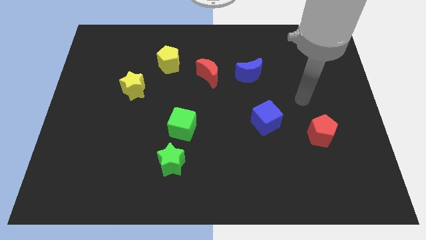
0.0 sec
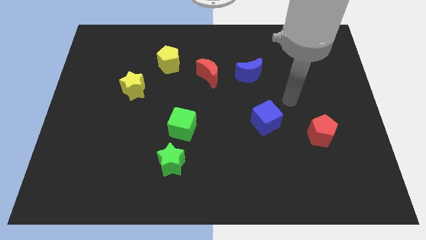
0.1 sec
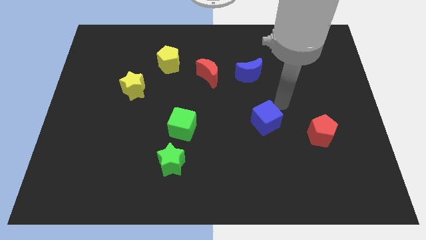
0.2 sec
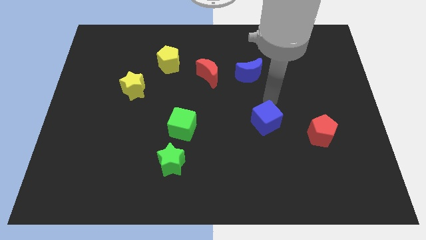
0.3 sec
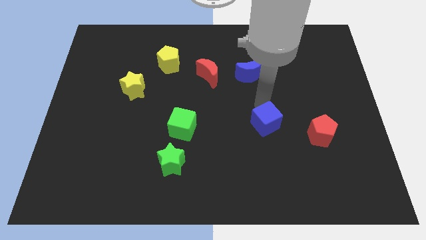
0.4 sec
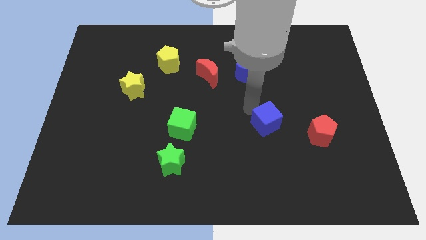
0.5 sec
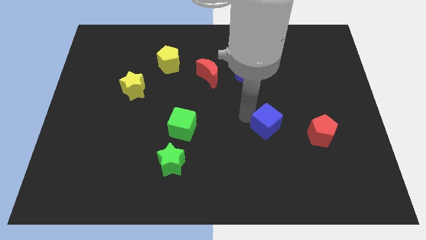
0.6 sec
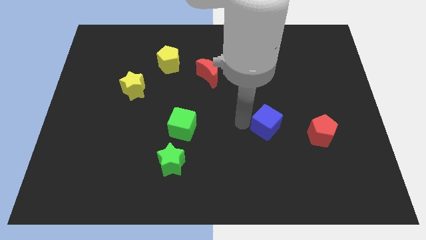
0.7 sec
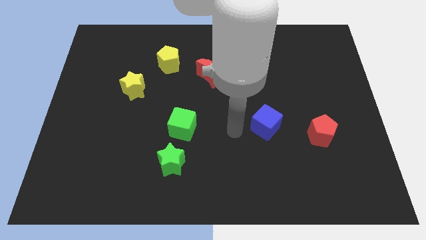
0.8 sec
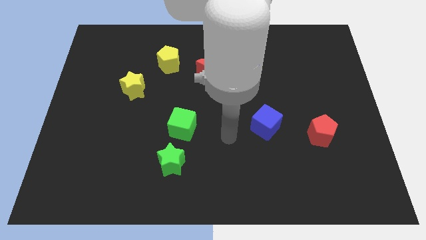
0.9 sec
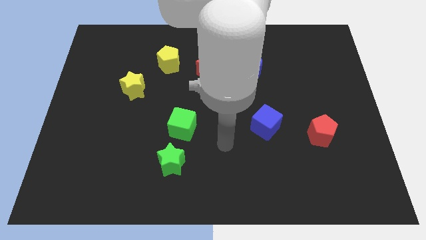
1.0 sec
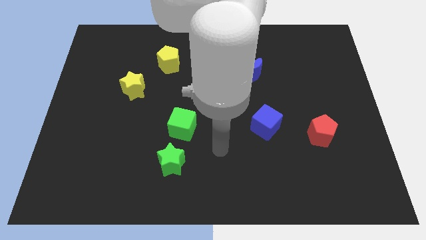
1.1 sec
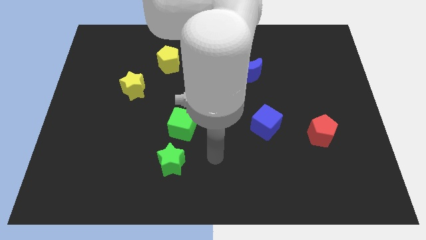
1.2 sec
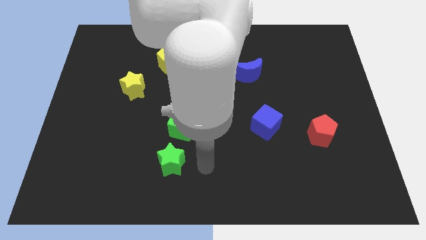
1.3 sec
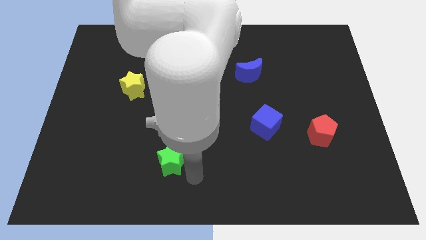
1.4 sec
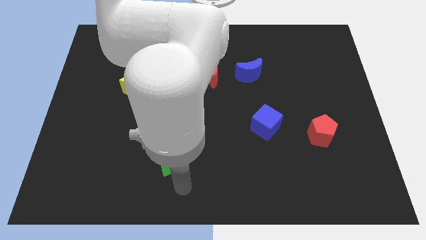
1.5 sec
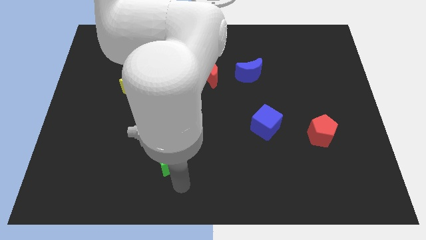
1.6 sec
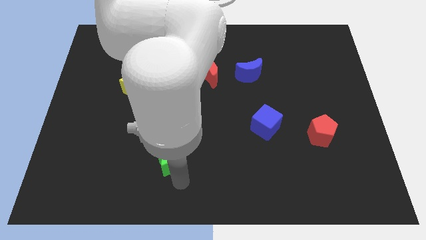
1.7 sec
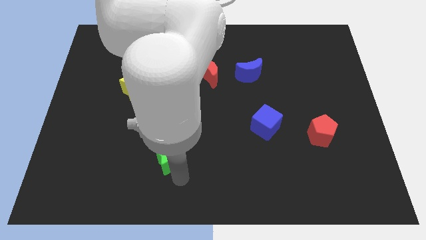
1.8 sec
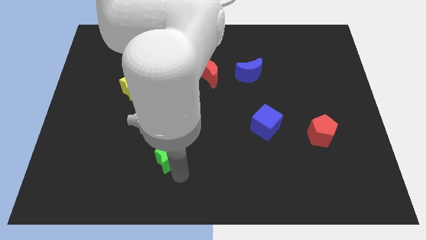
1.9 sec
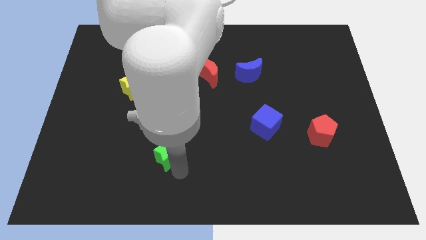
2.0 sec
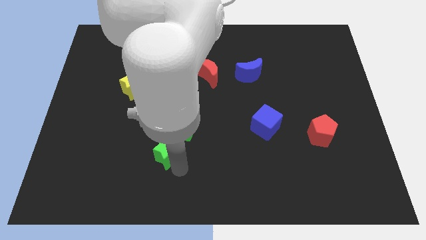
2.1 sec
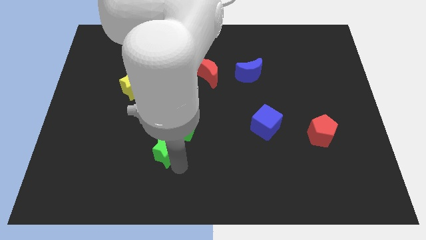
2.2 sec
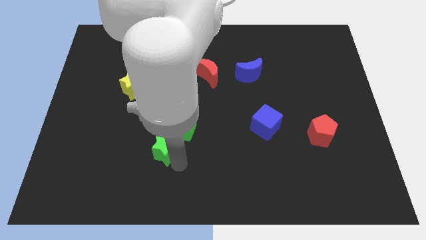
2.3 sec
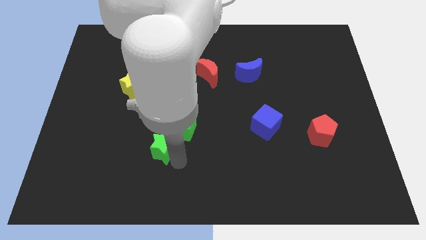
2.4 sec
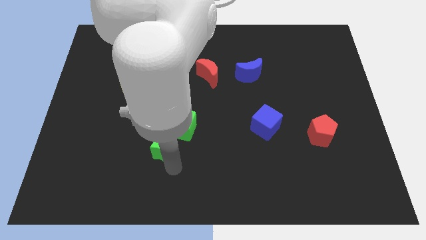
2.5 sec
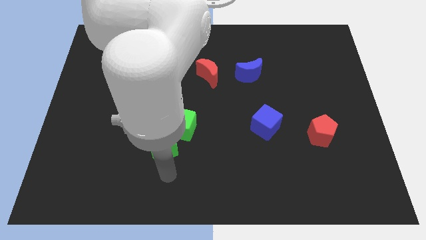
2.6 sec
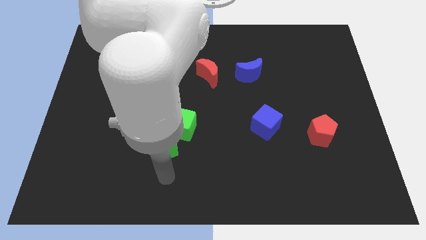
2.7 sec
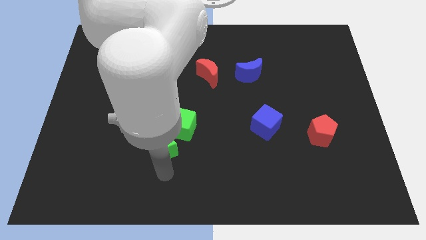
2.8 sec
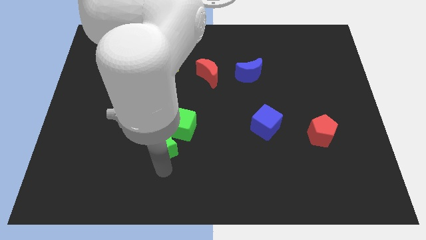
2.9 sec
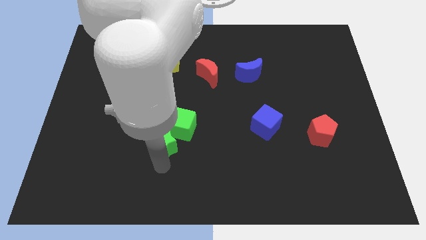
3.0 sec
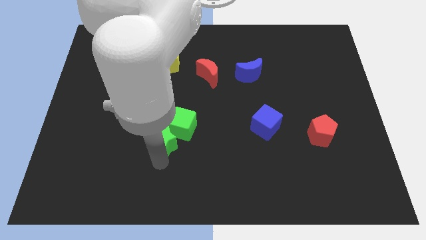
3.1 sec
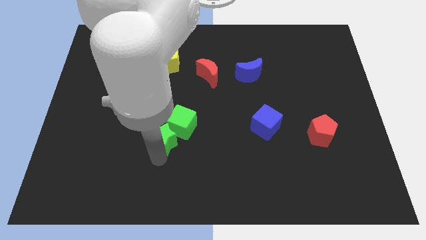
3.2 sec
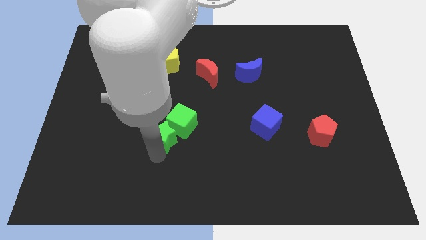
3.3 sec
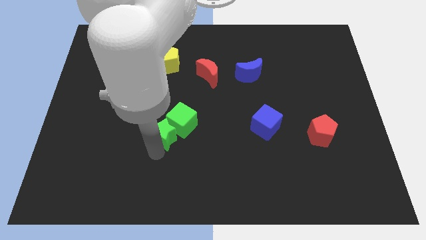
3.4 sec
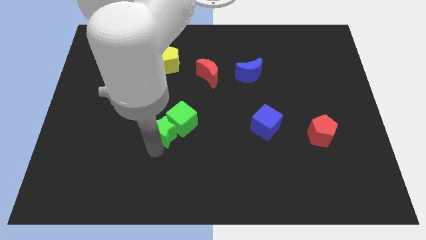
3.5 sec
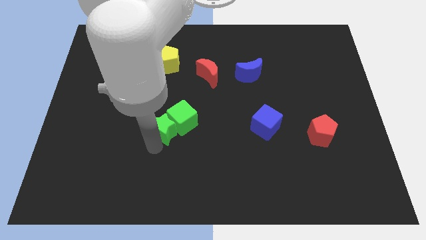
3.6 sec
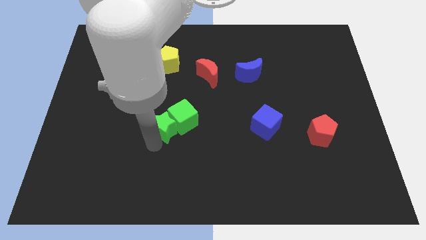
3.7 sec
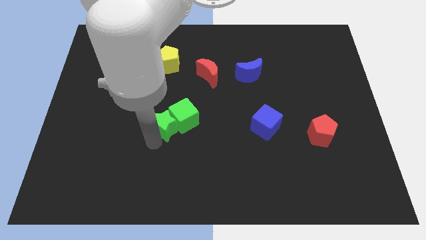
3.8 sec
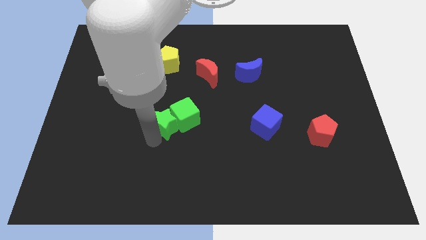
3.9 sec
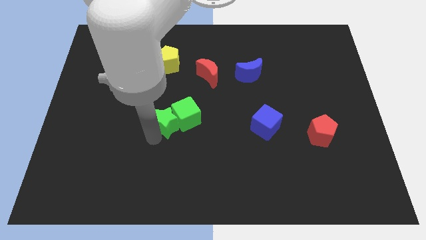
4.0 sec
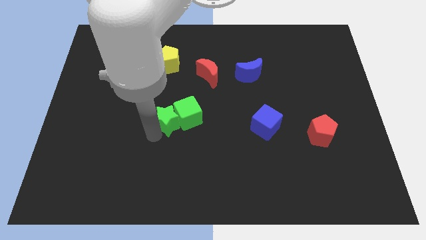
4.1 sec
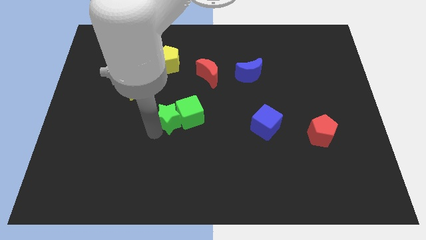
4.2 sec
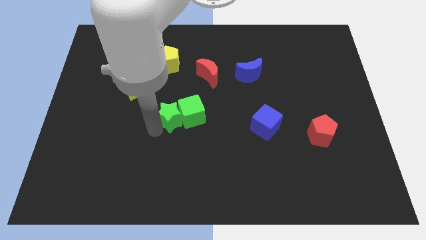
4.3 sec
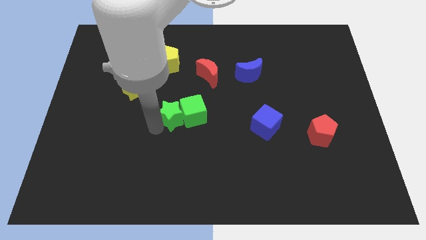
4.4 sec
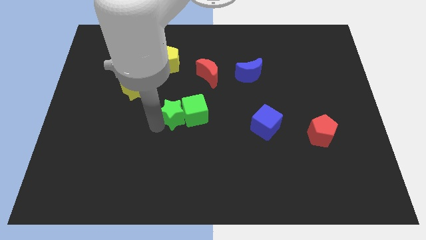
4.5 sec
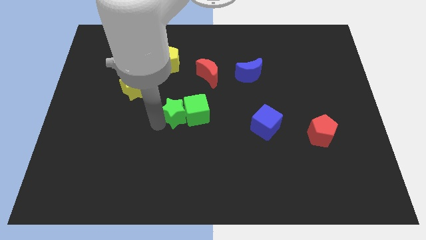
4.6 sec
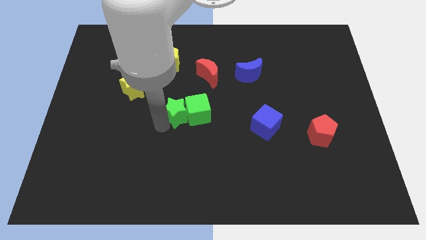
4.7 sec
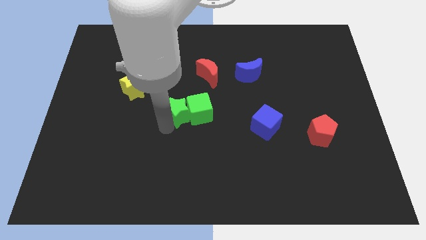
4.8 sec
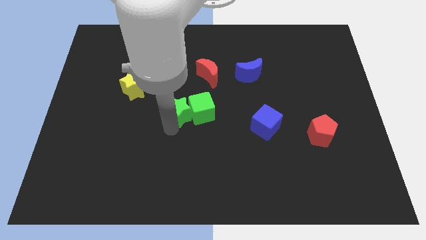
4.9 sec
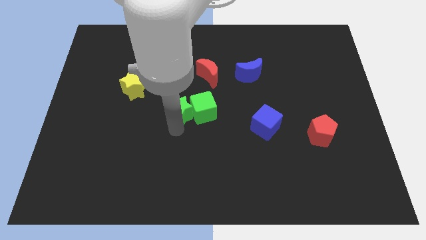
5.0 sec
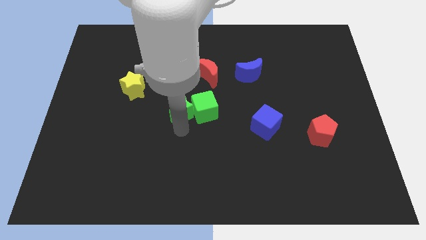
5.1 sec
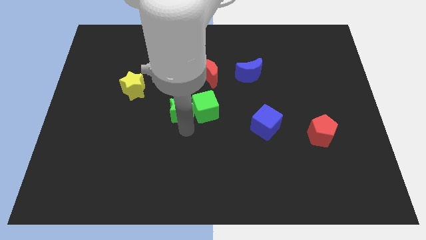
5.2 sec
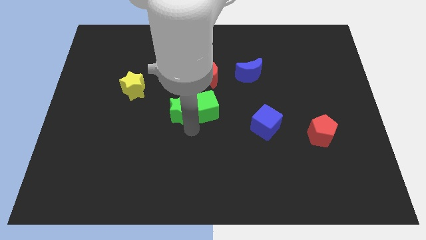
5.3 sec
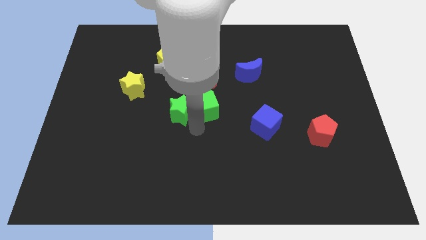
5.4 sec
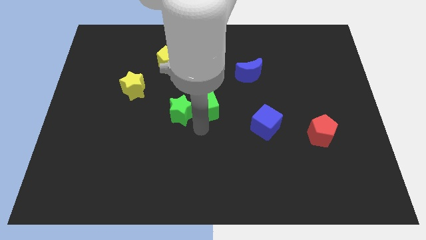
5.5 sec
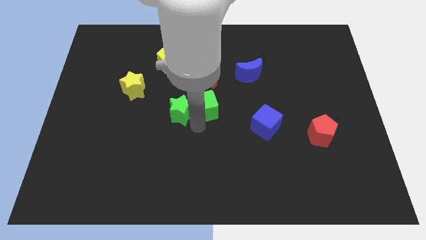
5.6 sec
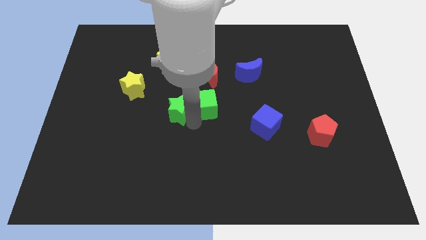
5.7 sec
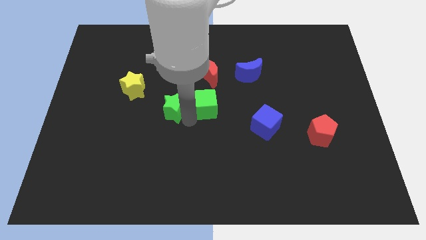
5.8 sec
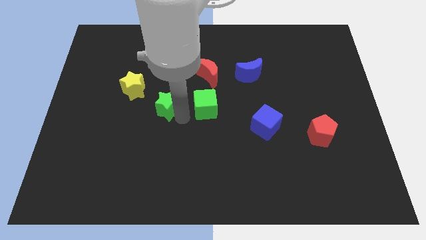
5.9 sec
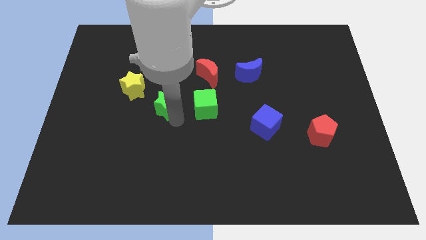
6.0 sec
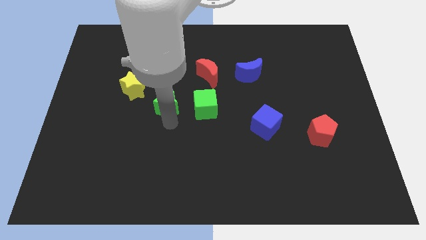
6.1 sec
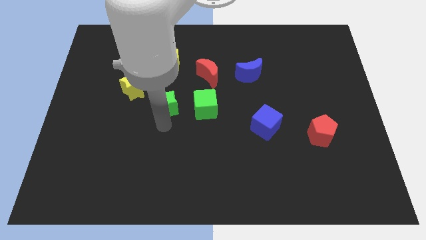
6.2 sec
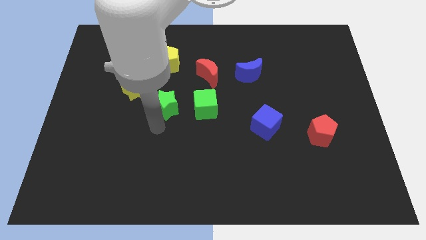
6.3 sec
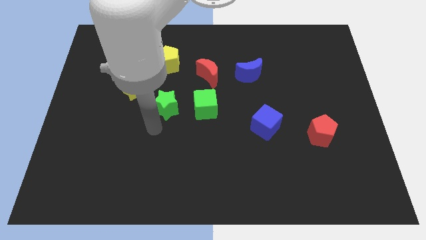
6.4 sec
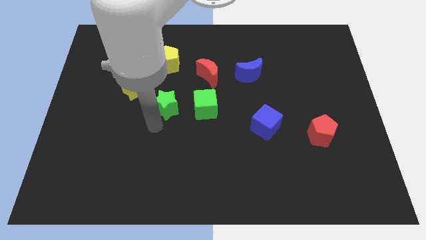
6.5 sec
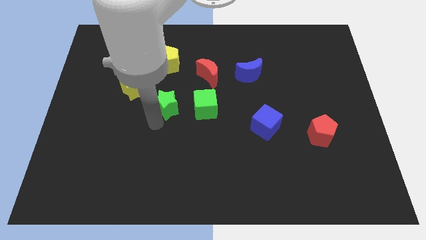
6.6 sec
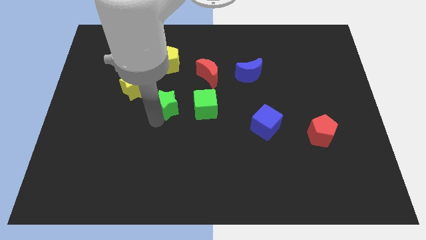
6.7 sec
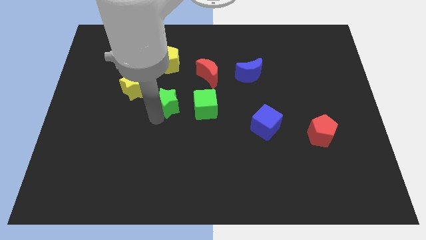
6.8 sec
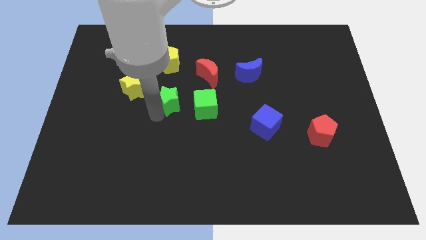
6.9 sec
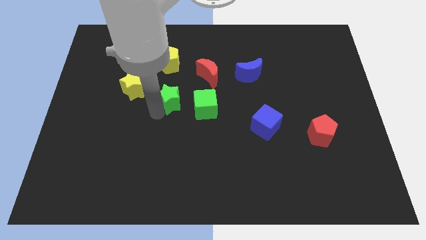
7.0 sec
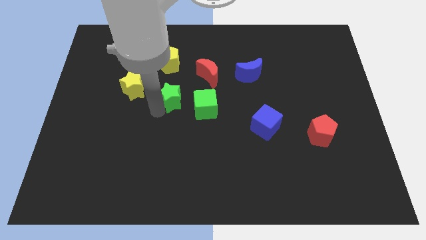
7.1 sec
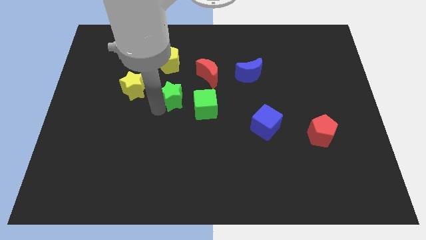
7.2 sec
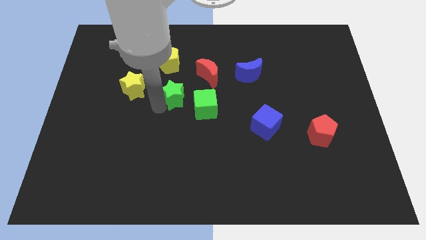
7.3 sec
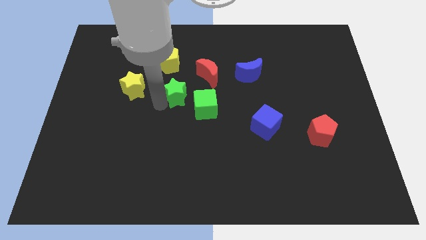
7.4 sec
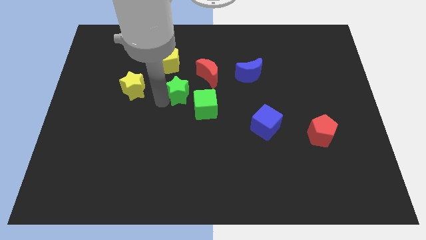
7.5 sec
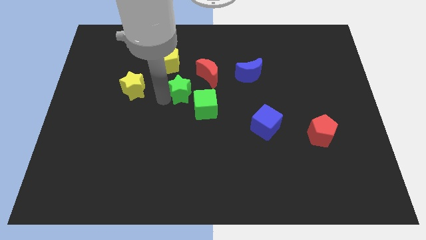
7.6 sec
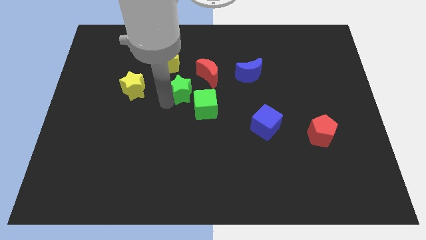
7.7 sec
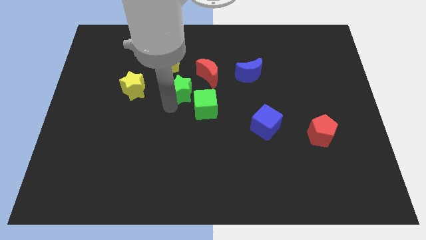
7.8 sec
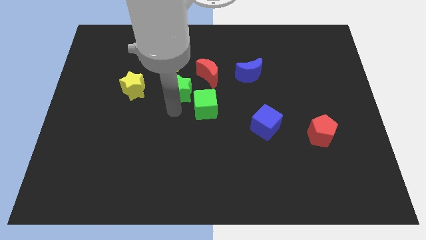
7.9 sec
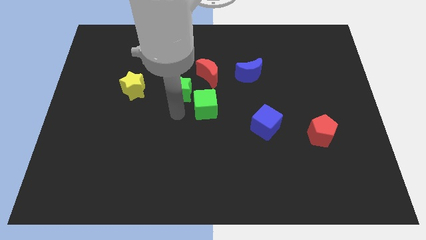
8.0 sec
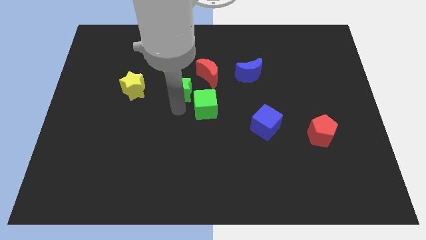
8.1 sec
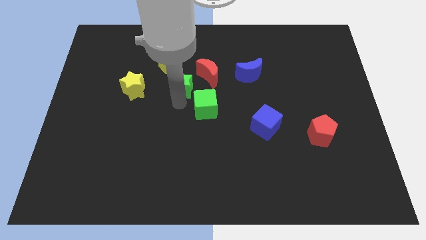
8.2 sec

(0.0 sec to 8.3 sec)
push the green star up
